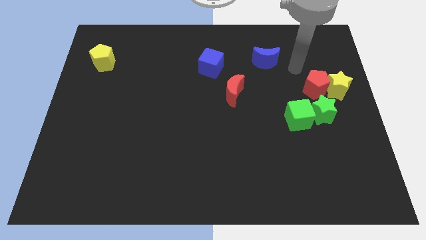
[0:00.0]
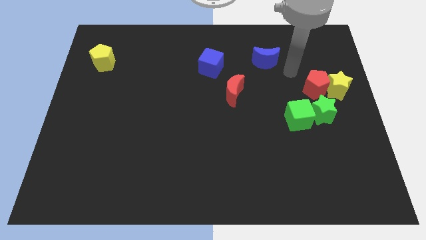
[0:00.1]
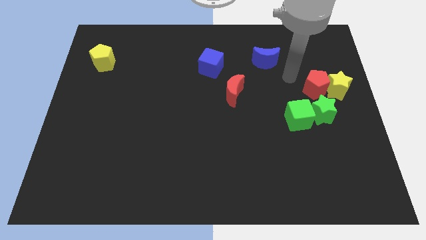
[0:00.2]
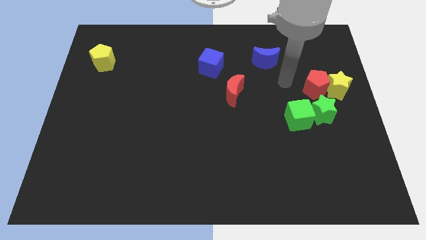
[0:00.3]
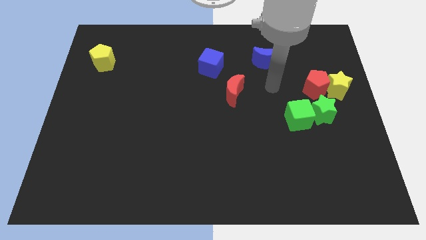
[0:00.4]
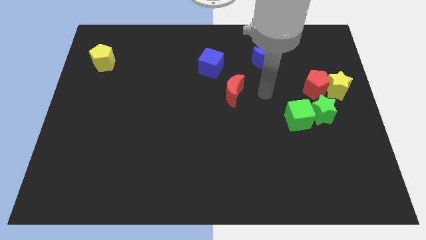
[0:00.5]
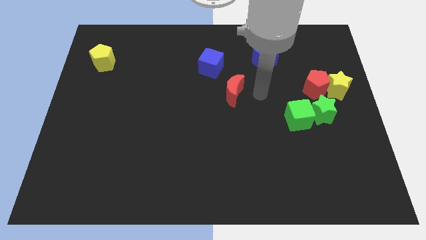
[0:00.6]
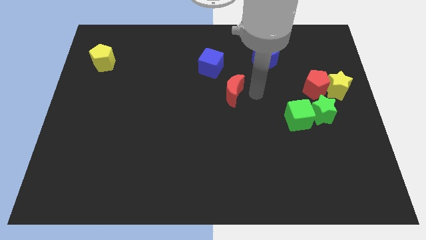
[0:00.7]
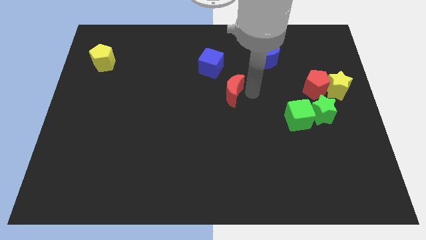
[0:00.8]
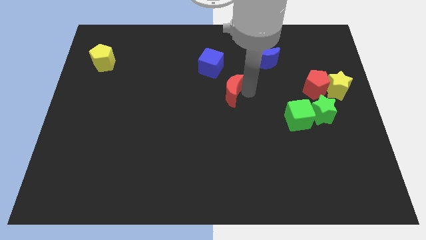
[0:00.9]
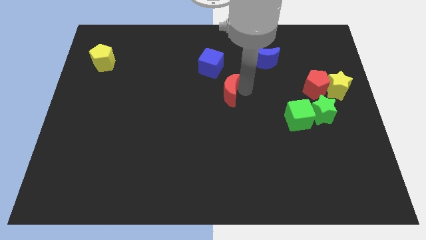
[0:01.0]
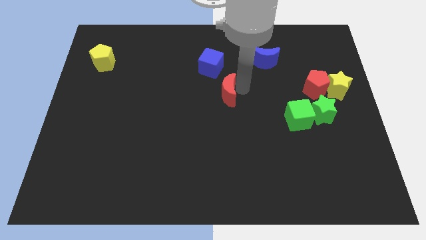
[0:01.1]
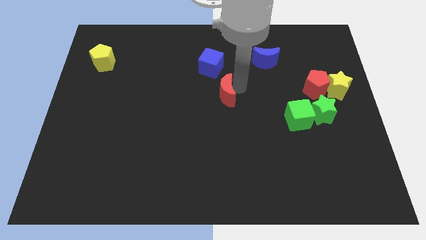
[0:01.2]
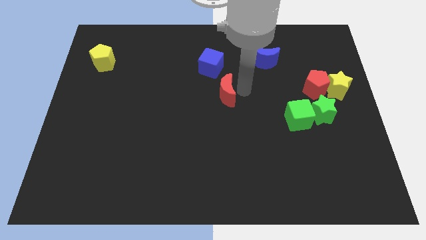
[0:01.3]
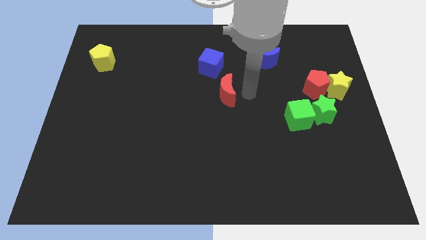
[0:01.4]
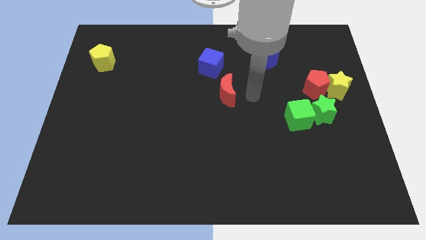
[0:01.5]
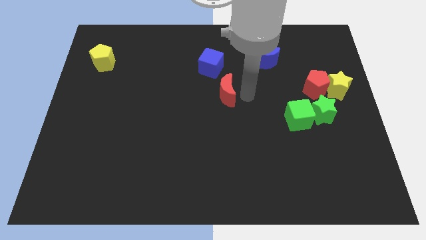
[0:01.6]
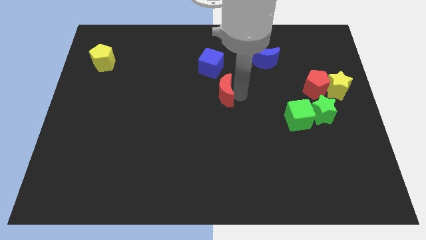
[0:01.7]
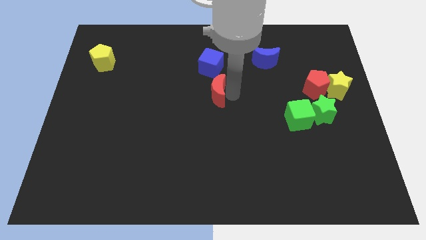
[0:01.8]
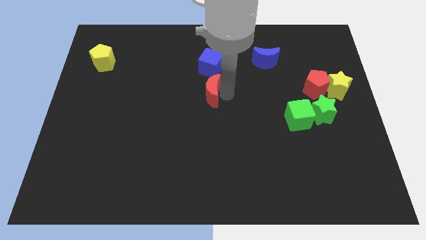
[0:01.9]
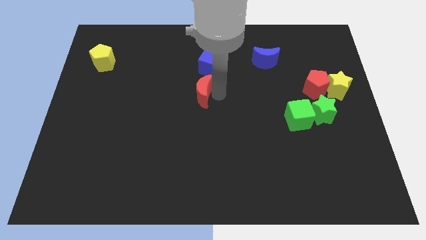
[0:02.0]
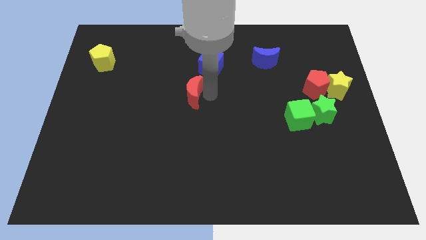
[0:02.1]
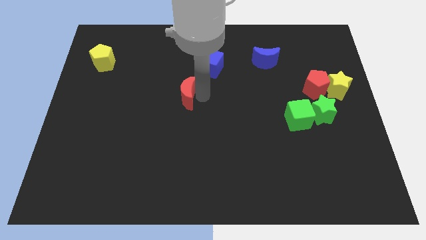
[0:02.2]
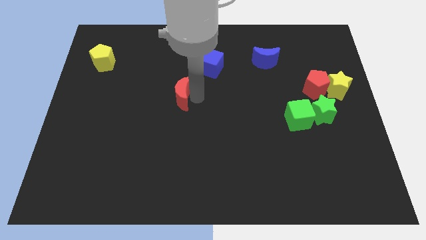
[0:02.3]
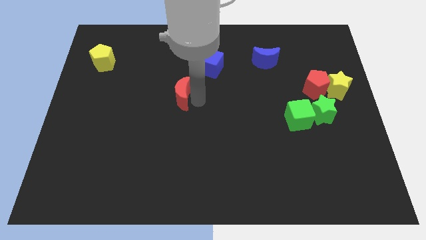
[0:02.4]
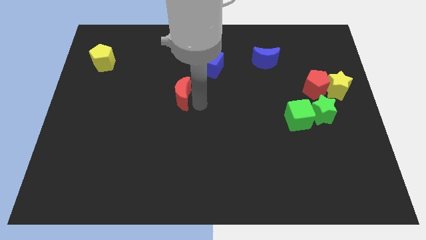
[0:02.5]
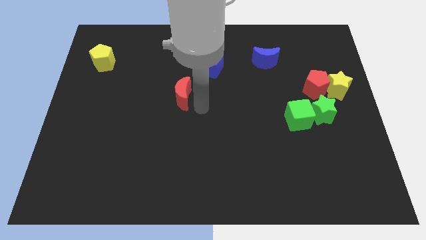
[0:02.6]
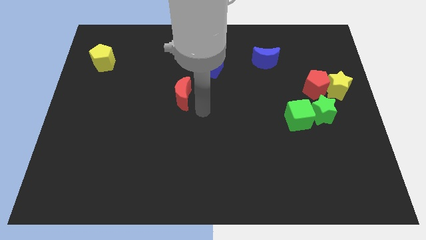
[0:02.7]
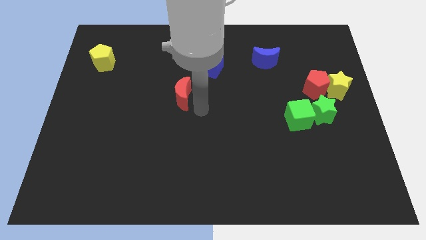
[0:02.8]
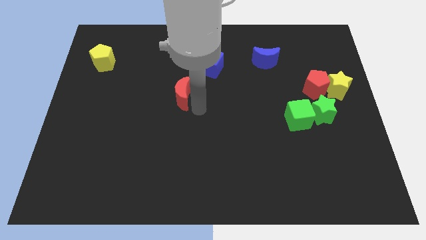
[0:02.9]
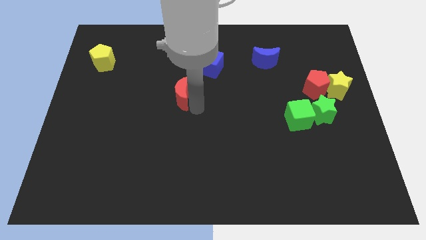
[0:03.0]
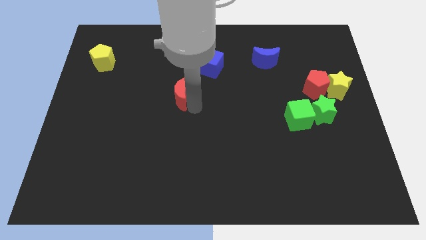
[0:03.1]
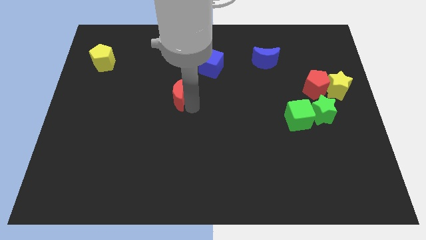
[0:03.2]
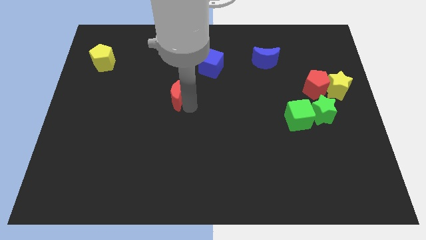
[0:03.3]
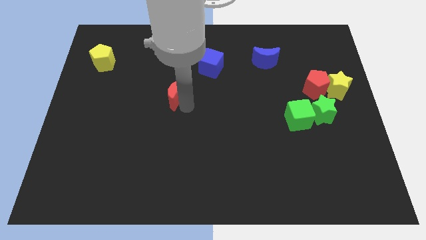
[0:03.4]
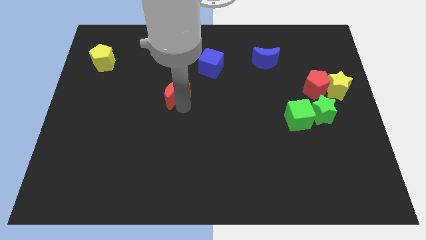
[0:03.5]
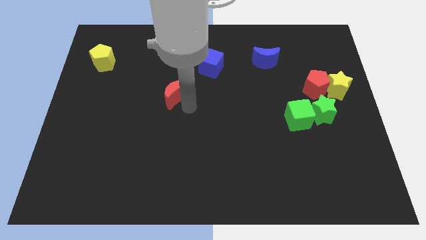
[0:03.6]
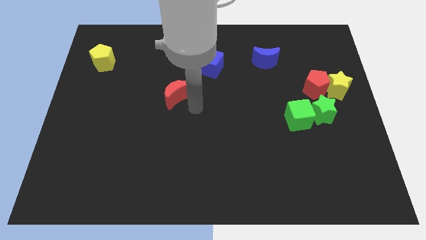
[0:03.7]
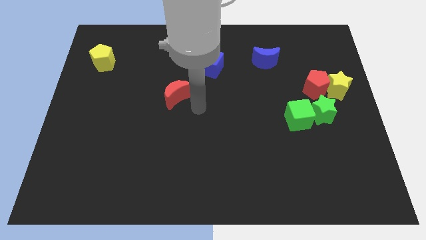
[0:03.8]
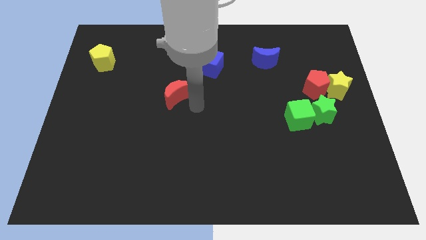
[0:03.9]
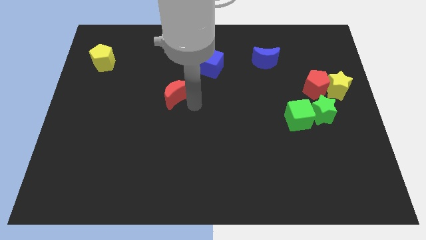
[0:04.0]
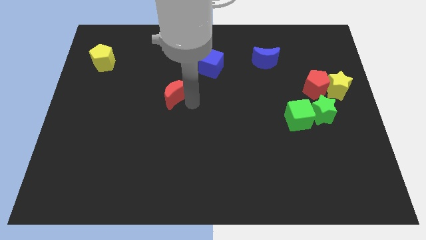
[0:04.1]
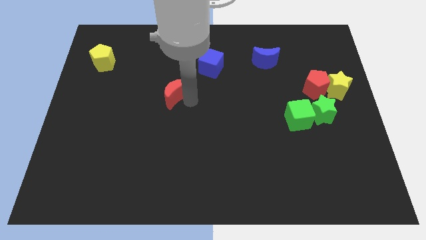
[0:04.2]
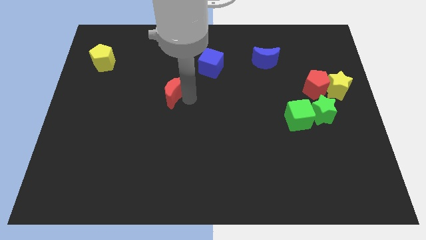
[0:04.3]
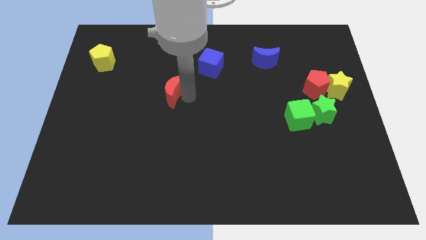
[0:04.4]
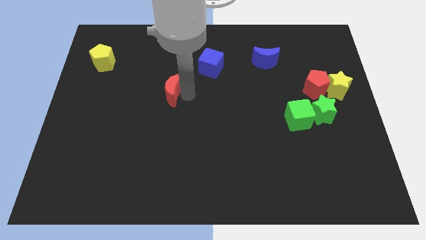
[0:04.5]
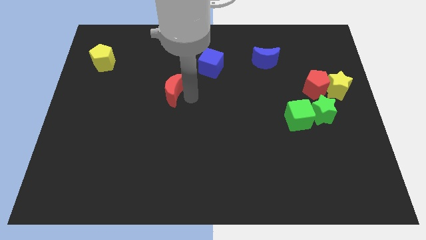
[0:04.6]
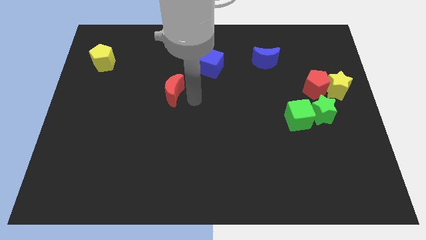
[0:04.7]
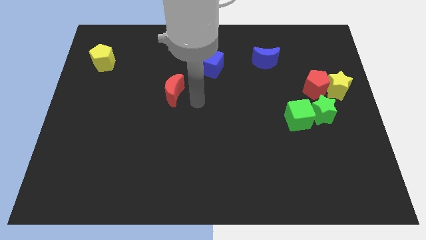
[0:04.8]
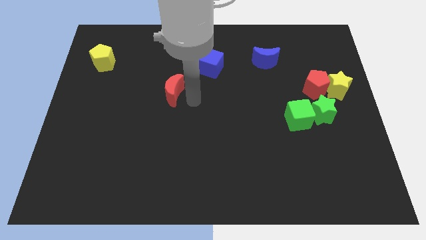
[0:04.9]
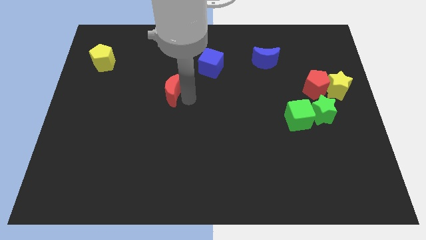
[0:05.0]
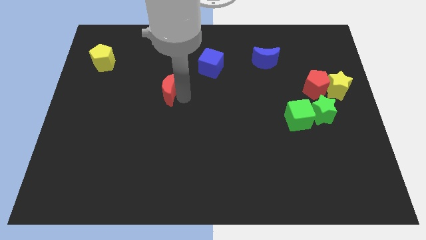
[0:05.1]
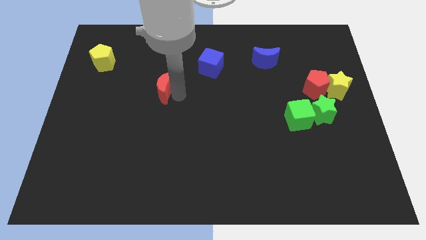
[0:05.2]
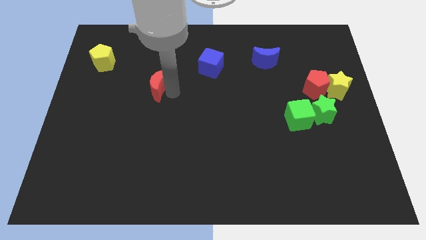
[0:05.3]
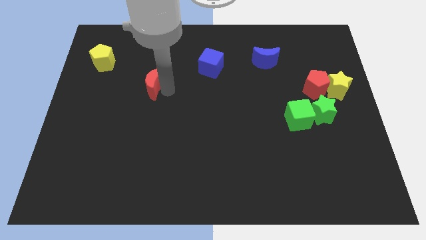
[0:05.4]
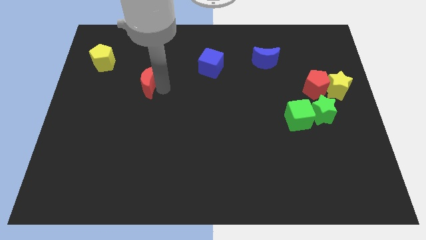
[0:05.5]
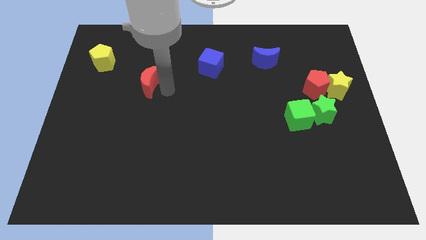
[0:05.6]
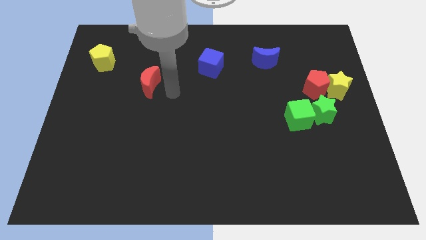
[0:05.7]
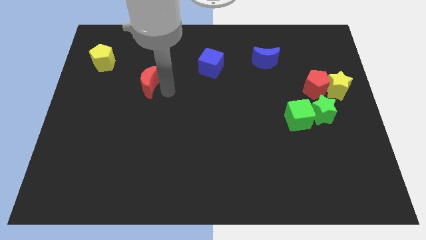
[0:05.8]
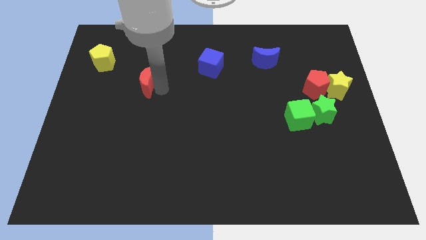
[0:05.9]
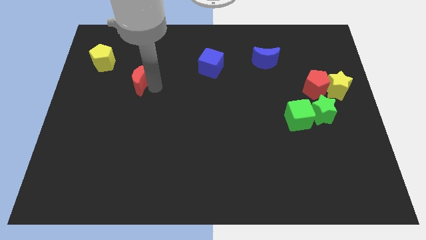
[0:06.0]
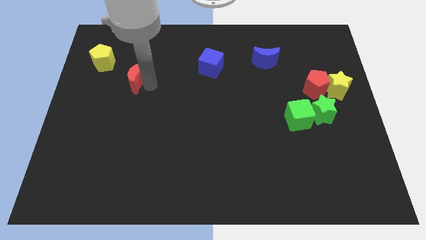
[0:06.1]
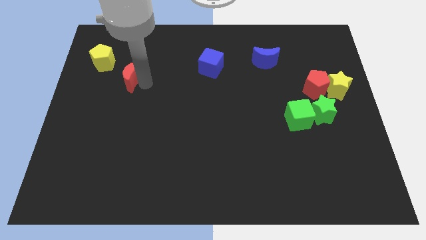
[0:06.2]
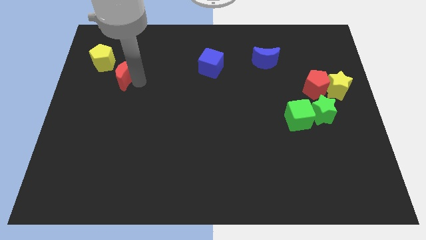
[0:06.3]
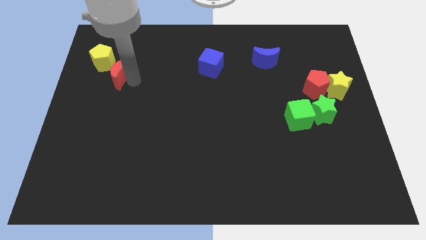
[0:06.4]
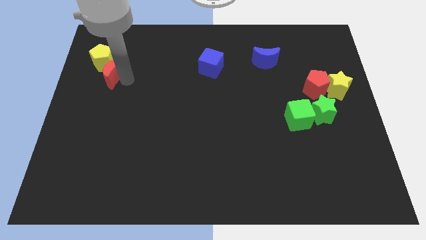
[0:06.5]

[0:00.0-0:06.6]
push the red moon to the yellow pentagon

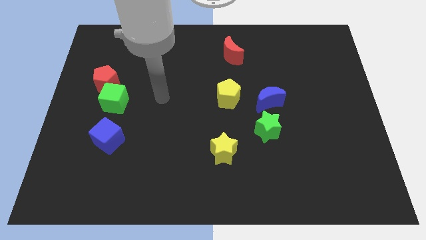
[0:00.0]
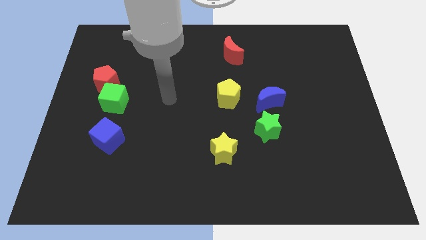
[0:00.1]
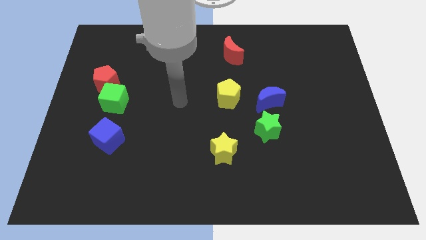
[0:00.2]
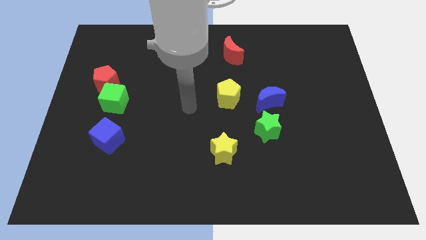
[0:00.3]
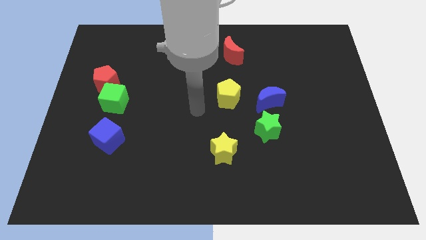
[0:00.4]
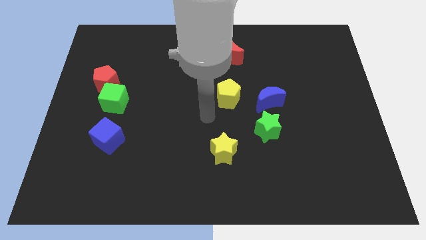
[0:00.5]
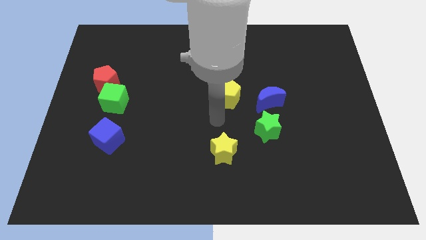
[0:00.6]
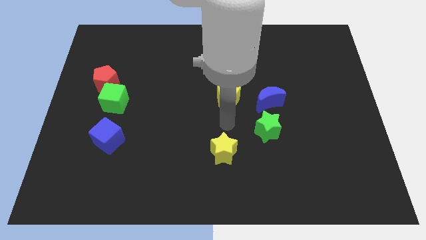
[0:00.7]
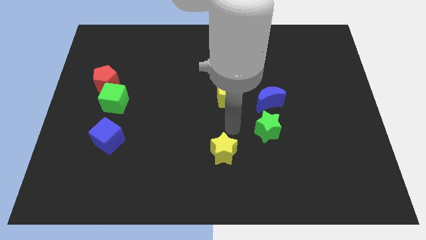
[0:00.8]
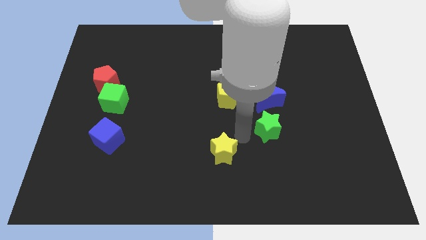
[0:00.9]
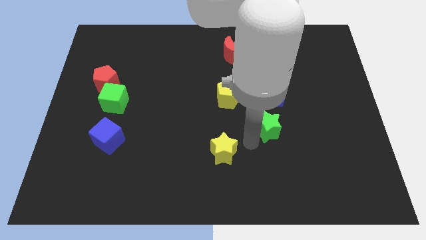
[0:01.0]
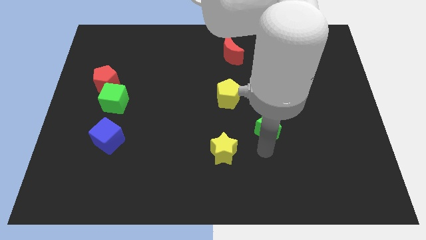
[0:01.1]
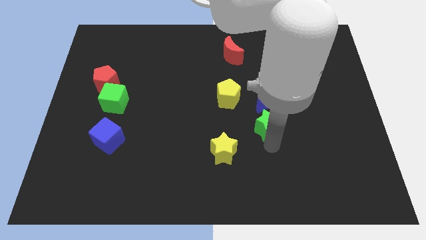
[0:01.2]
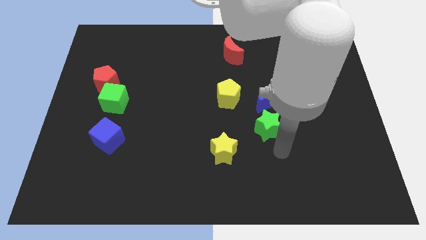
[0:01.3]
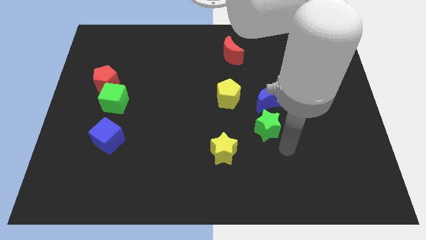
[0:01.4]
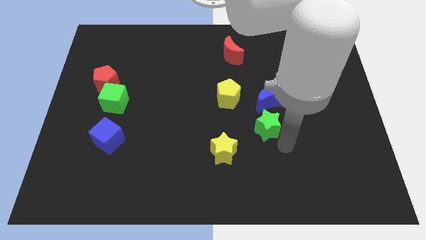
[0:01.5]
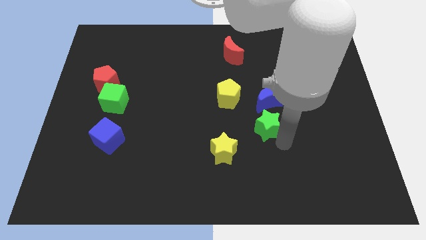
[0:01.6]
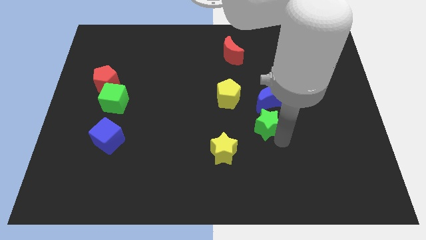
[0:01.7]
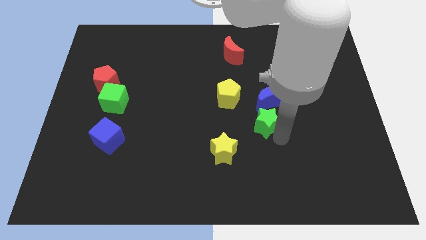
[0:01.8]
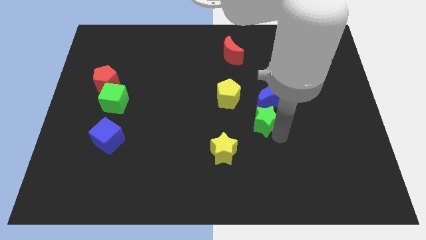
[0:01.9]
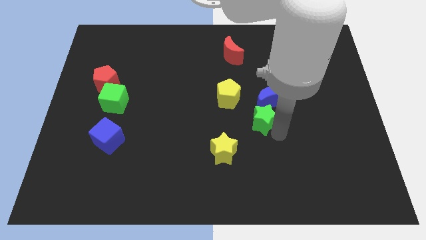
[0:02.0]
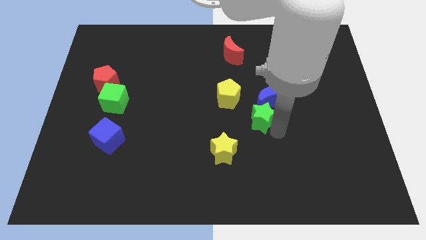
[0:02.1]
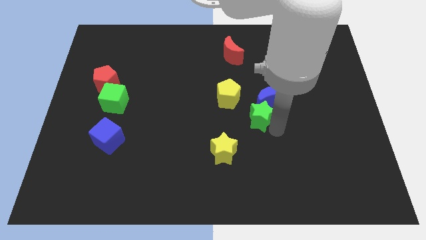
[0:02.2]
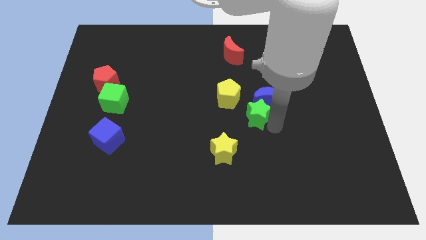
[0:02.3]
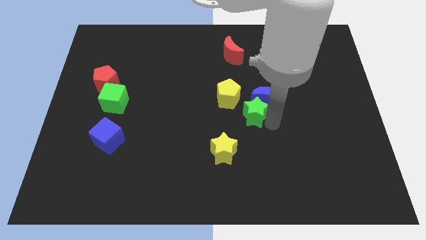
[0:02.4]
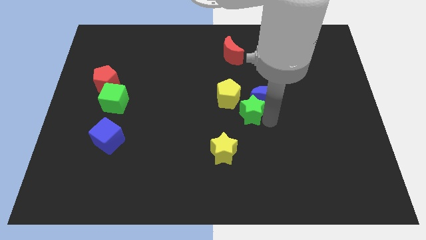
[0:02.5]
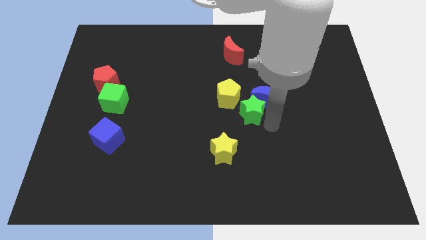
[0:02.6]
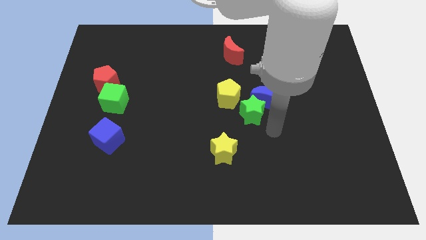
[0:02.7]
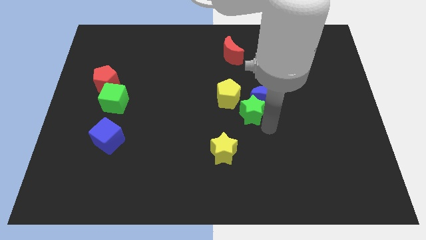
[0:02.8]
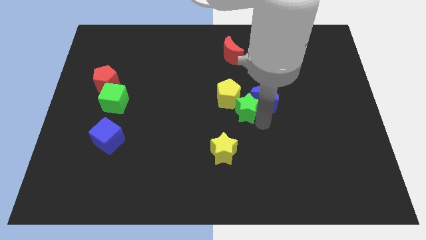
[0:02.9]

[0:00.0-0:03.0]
move the green star close to the yellow pentagon
